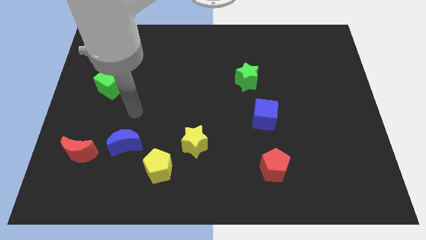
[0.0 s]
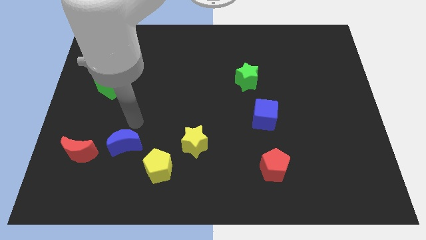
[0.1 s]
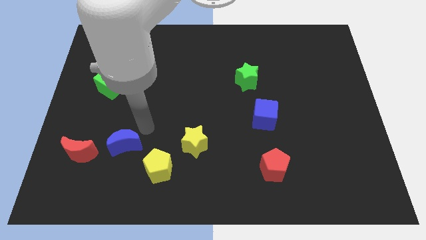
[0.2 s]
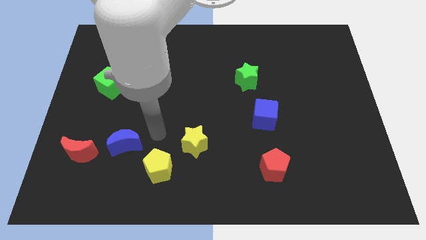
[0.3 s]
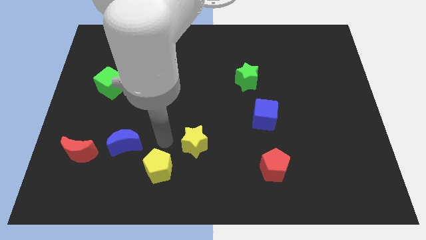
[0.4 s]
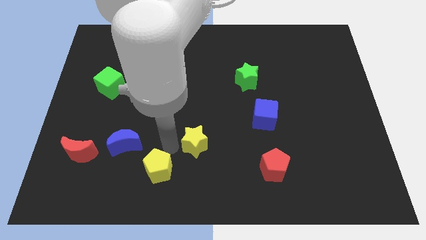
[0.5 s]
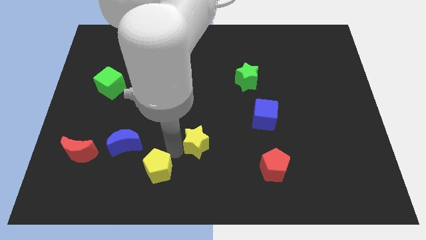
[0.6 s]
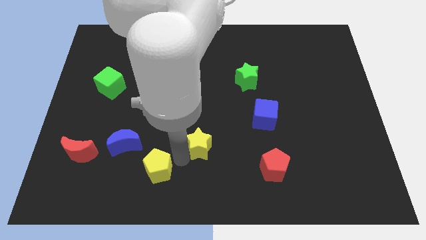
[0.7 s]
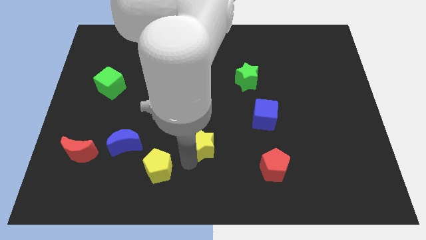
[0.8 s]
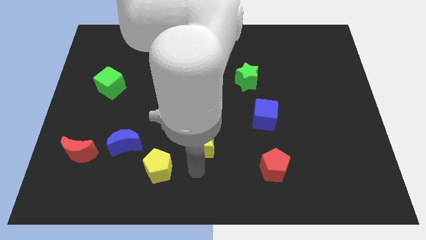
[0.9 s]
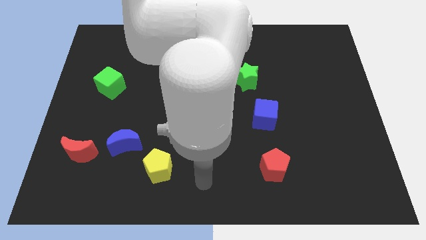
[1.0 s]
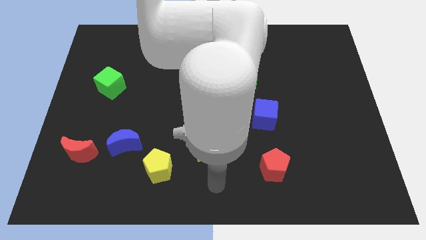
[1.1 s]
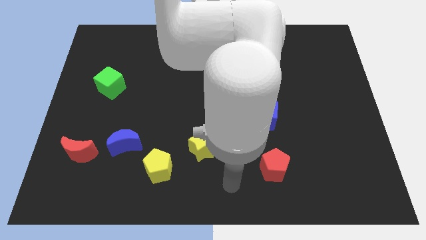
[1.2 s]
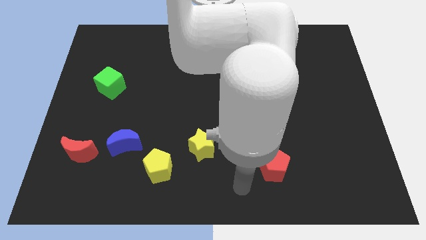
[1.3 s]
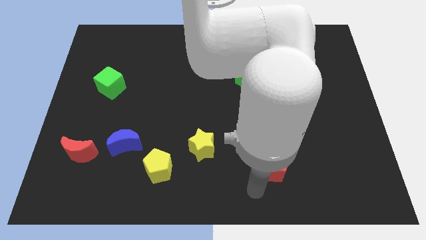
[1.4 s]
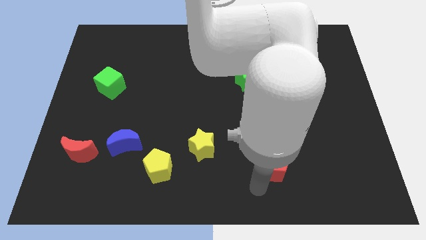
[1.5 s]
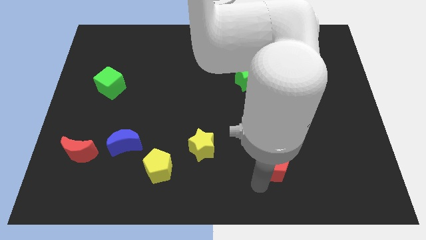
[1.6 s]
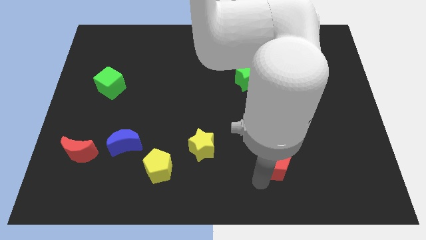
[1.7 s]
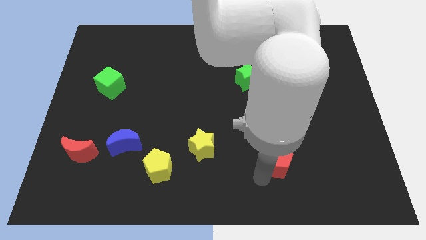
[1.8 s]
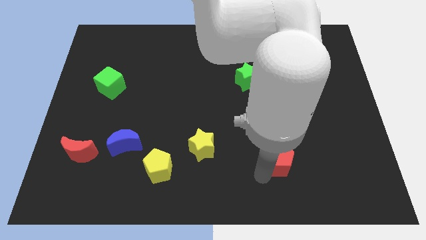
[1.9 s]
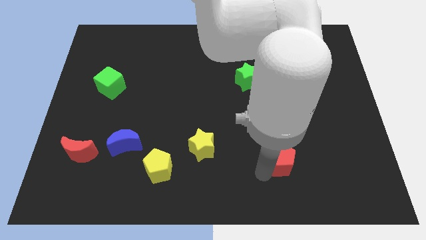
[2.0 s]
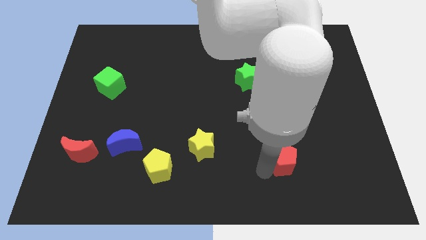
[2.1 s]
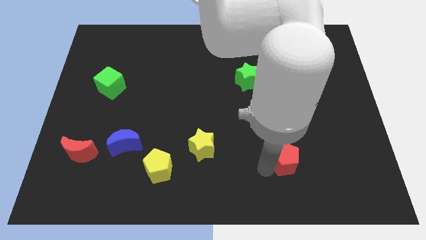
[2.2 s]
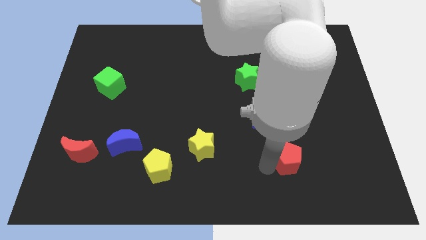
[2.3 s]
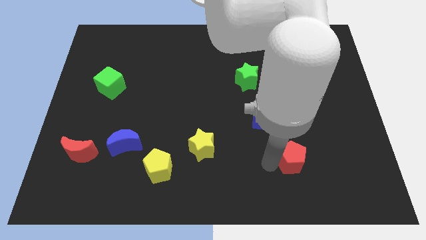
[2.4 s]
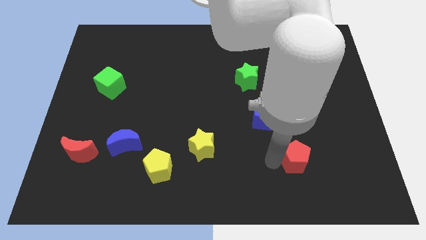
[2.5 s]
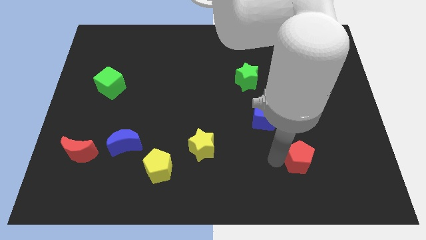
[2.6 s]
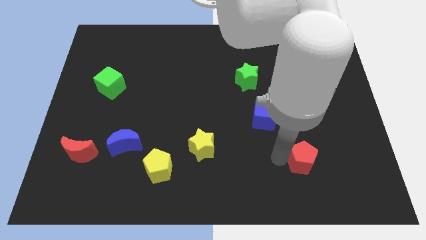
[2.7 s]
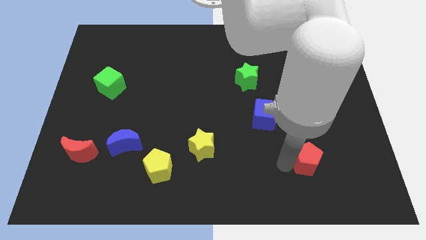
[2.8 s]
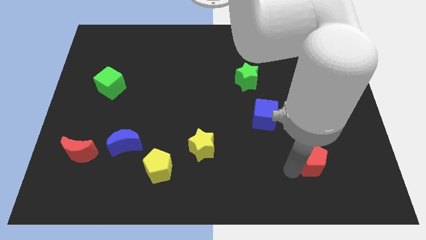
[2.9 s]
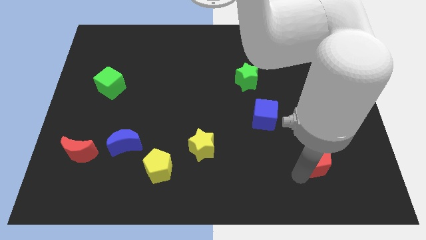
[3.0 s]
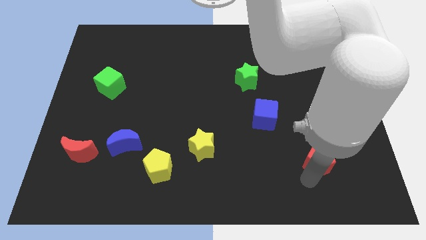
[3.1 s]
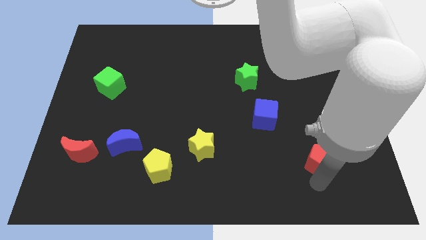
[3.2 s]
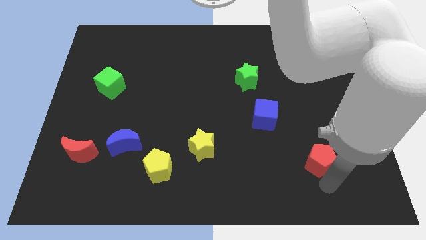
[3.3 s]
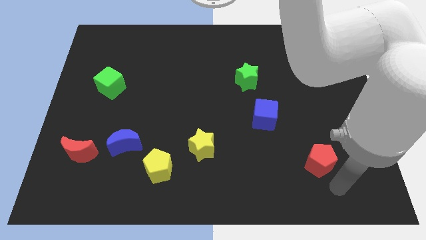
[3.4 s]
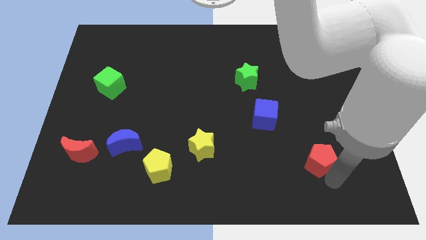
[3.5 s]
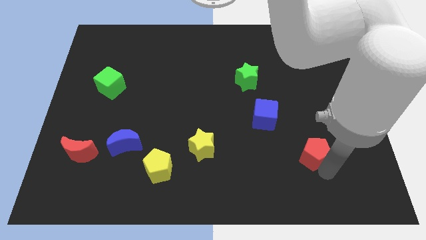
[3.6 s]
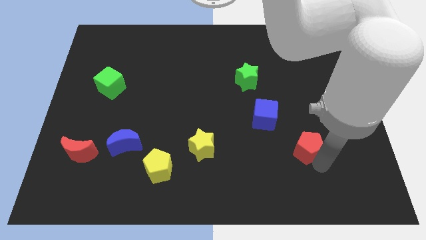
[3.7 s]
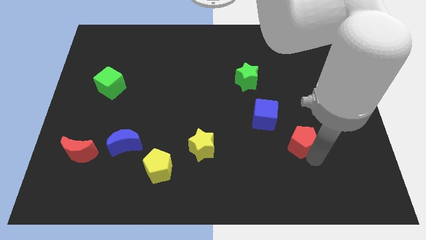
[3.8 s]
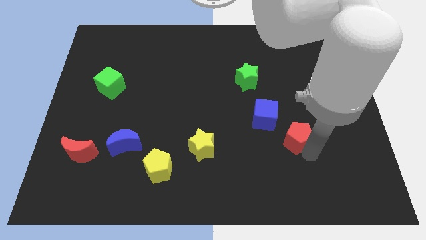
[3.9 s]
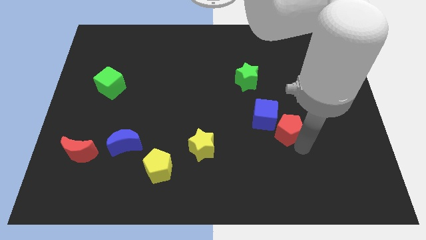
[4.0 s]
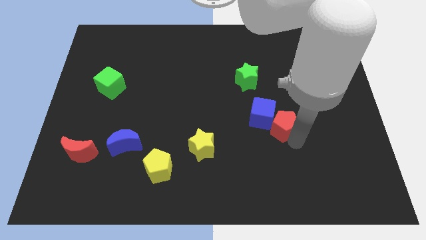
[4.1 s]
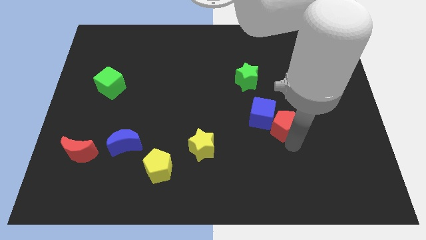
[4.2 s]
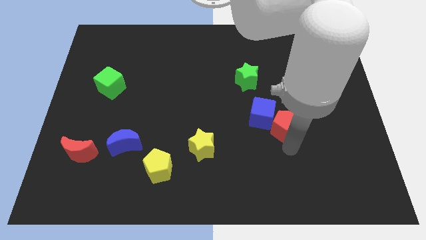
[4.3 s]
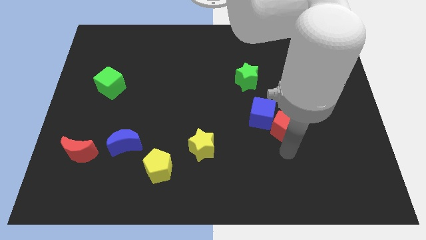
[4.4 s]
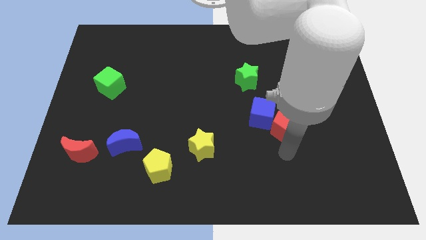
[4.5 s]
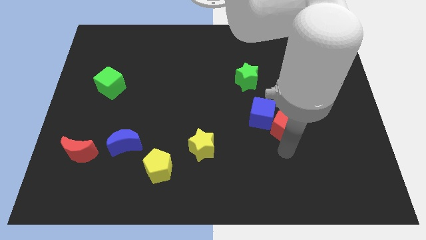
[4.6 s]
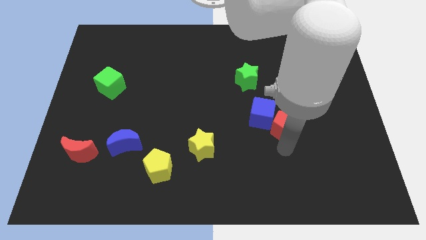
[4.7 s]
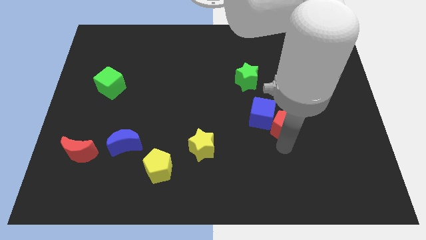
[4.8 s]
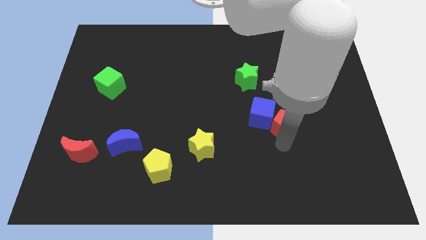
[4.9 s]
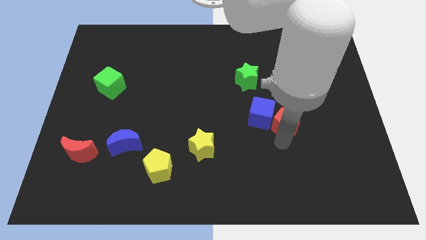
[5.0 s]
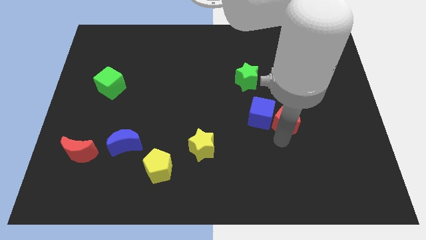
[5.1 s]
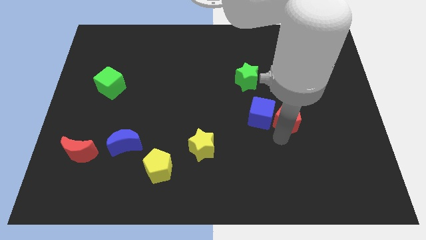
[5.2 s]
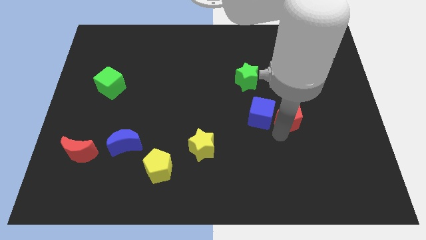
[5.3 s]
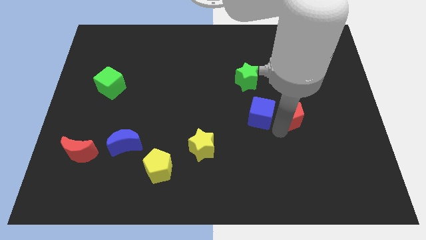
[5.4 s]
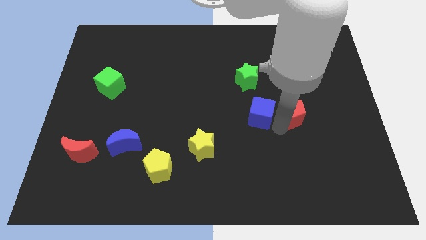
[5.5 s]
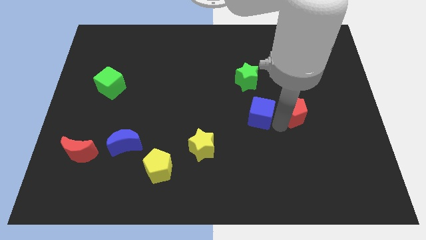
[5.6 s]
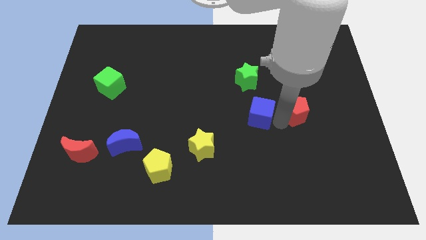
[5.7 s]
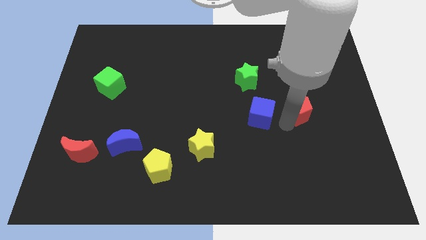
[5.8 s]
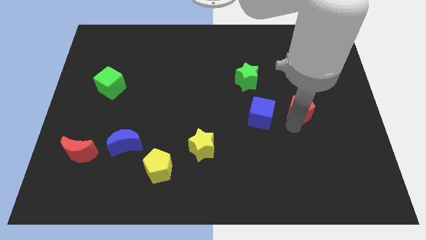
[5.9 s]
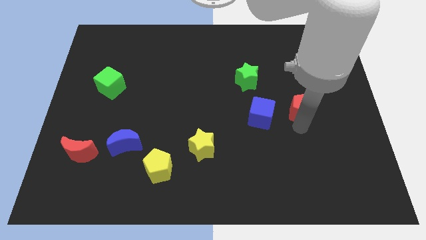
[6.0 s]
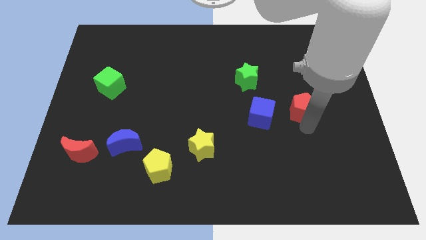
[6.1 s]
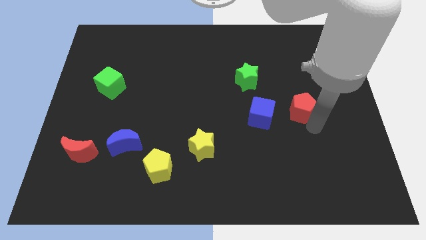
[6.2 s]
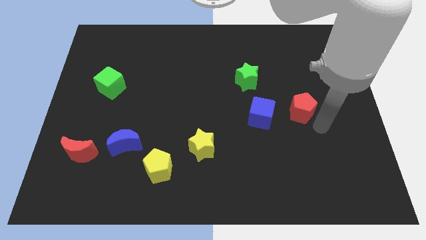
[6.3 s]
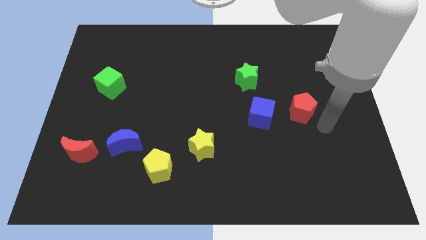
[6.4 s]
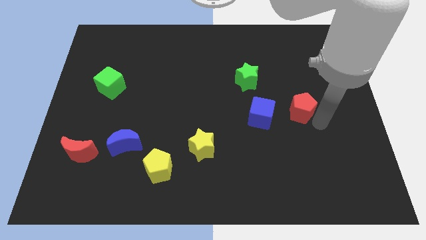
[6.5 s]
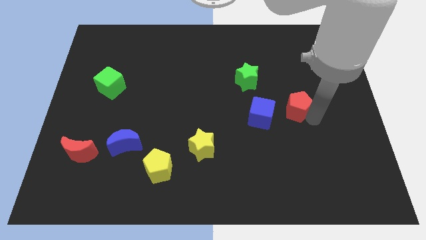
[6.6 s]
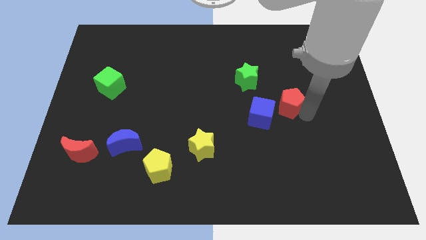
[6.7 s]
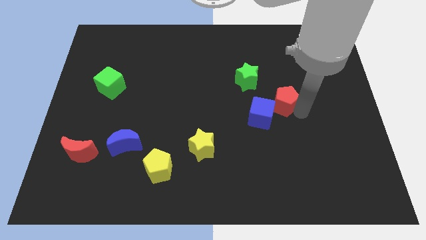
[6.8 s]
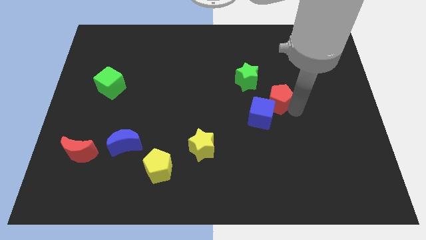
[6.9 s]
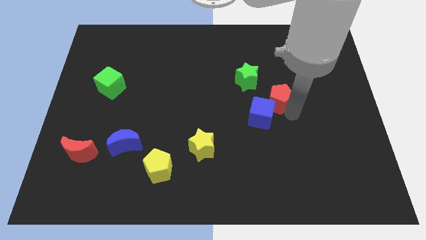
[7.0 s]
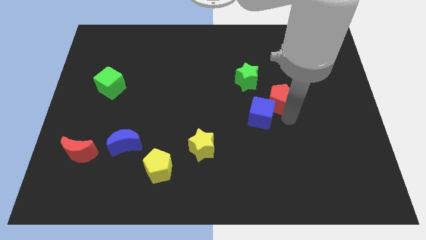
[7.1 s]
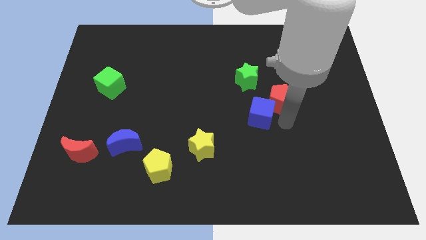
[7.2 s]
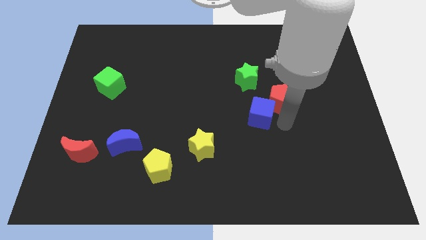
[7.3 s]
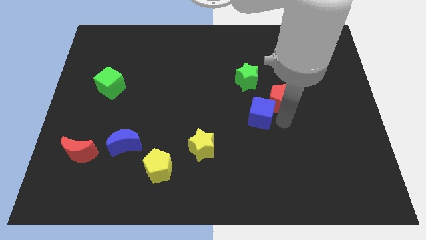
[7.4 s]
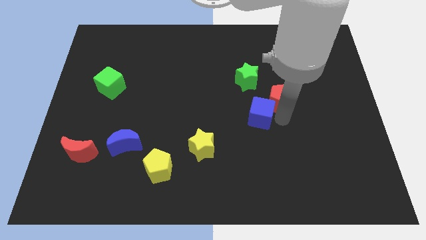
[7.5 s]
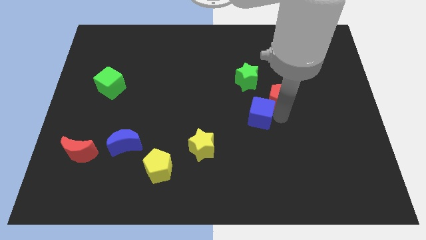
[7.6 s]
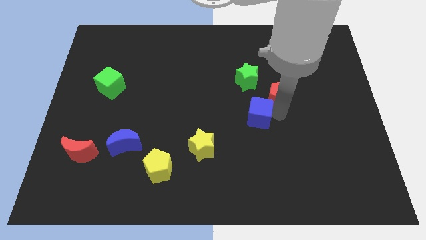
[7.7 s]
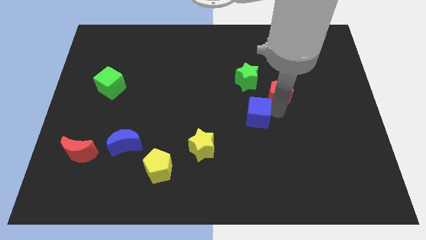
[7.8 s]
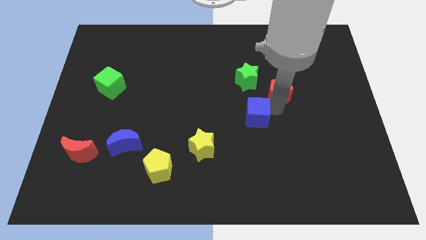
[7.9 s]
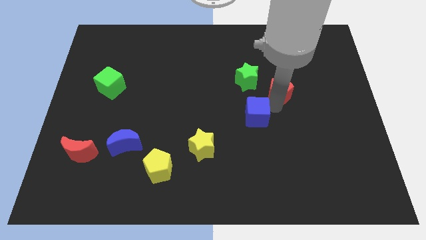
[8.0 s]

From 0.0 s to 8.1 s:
move the red pentagon up

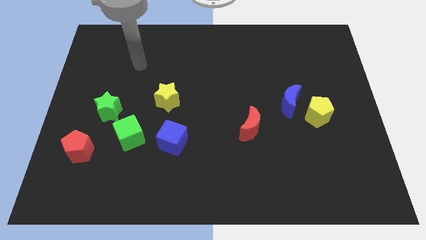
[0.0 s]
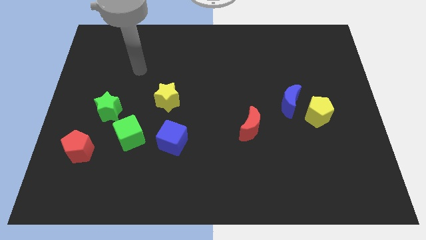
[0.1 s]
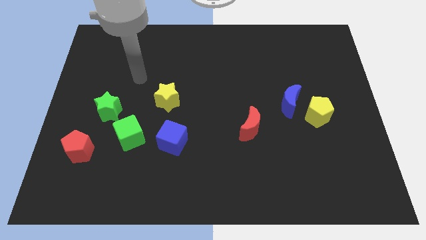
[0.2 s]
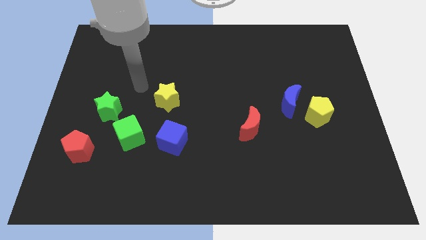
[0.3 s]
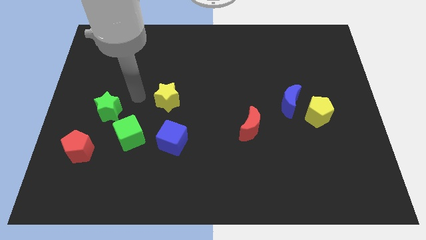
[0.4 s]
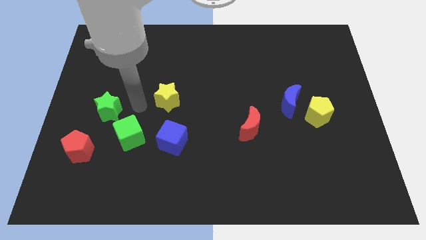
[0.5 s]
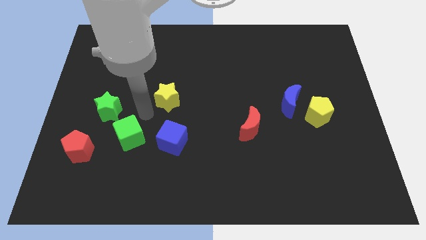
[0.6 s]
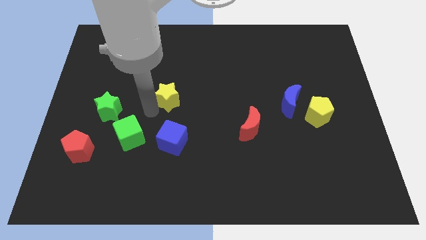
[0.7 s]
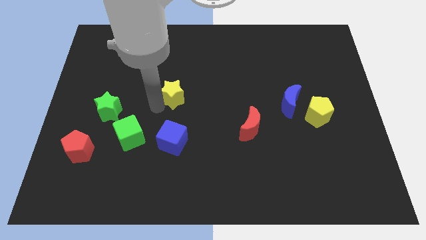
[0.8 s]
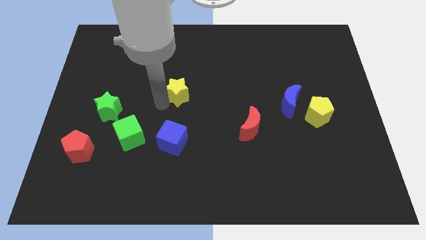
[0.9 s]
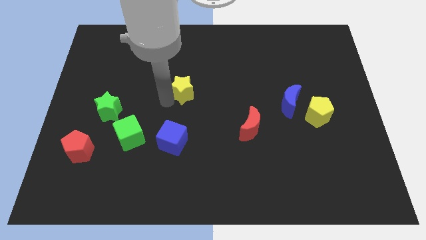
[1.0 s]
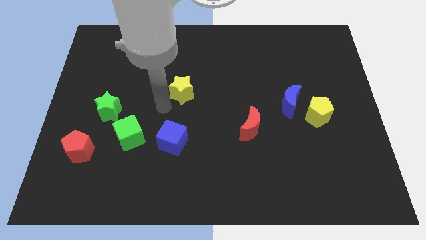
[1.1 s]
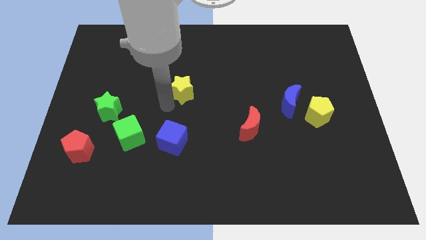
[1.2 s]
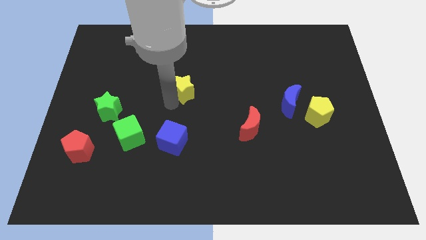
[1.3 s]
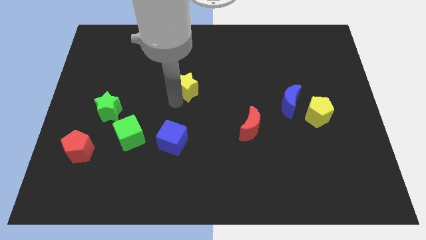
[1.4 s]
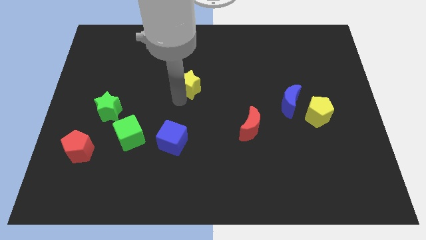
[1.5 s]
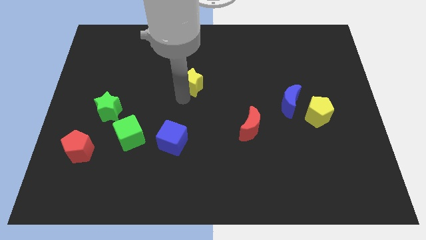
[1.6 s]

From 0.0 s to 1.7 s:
slightly move the yellow star diagonally up and to the right
